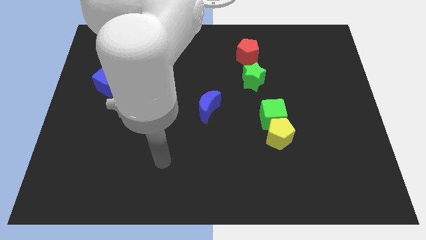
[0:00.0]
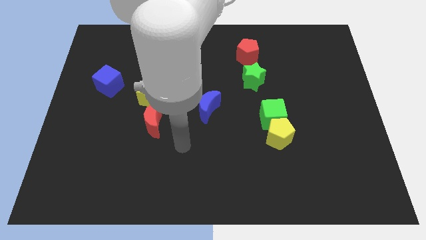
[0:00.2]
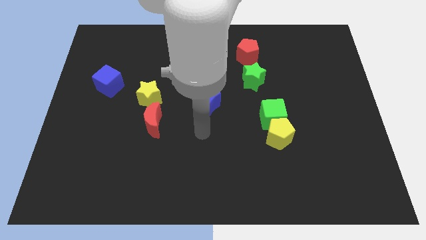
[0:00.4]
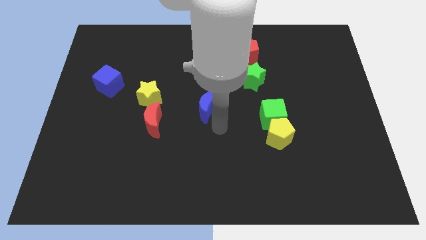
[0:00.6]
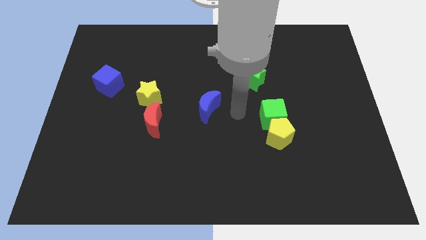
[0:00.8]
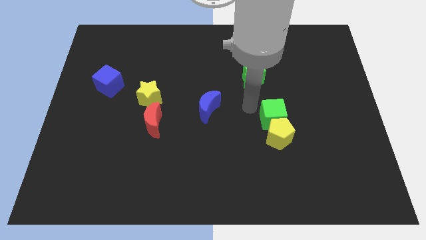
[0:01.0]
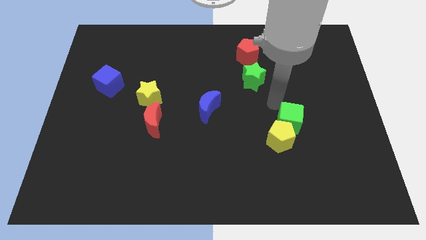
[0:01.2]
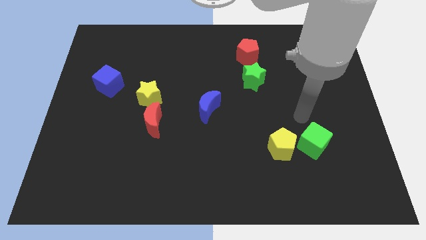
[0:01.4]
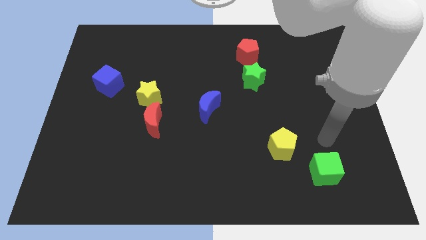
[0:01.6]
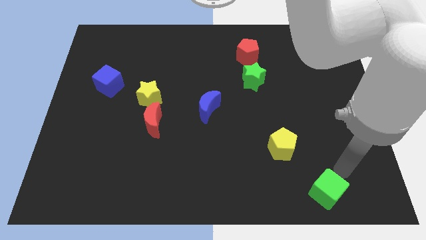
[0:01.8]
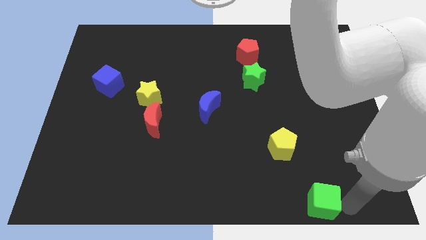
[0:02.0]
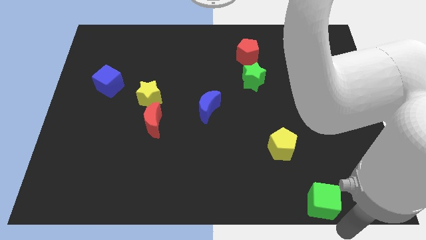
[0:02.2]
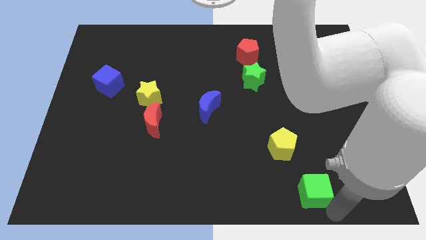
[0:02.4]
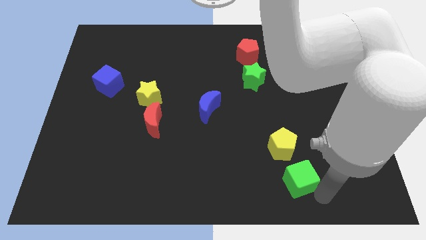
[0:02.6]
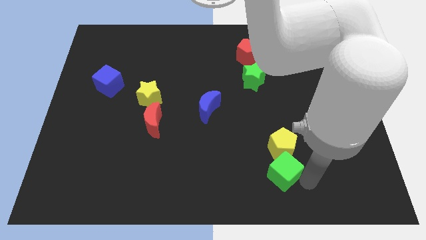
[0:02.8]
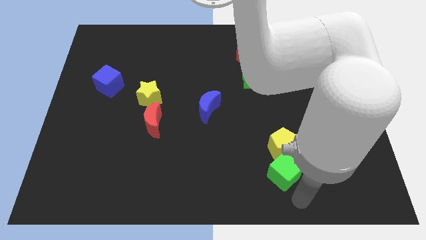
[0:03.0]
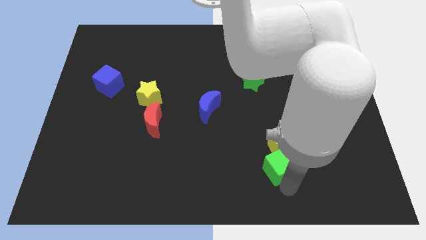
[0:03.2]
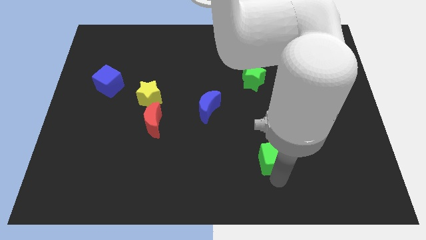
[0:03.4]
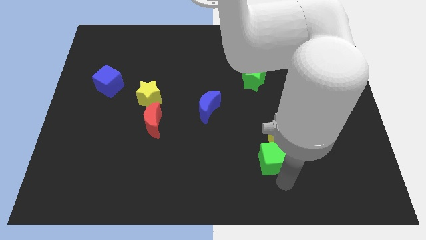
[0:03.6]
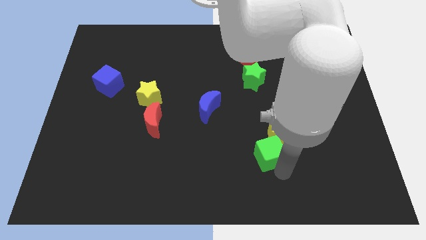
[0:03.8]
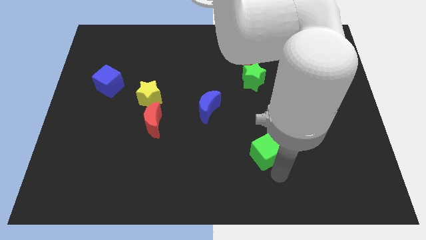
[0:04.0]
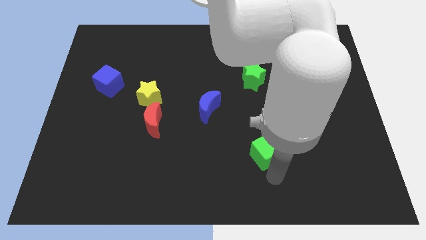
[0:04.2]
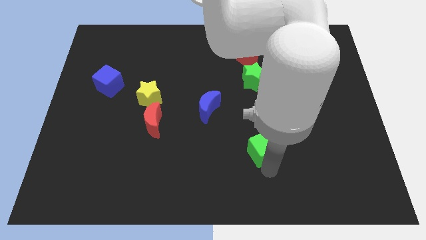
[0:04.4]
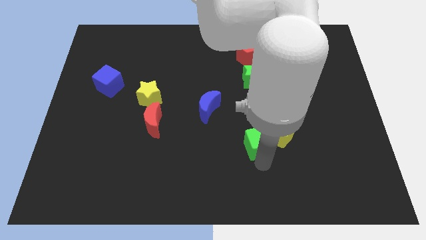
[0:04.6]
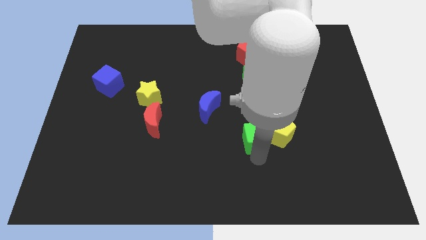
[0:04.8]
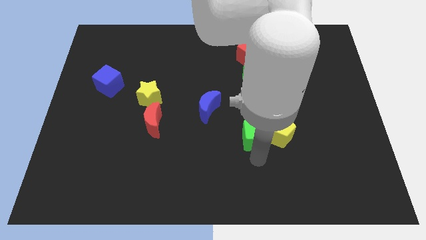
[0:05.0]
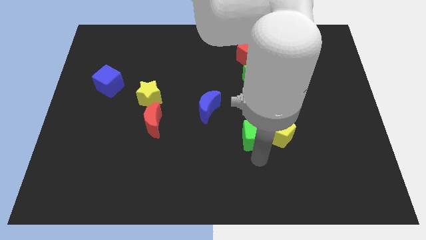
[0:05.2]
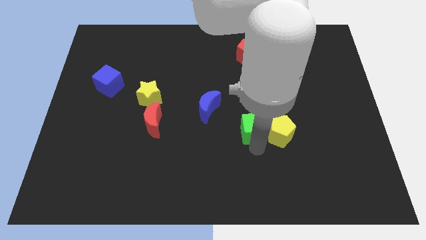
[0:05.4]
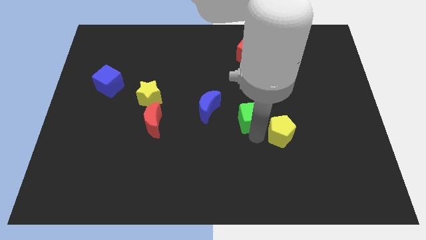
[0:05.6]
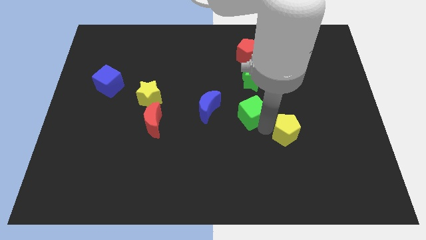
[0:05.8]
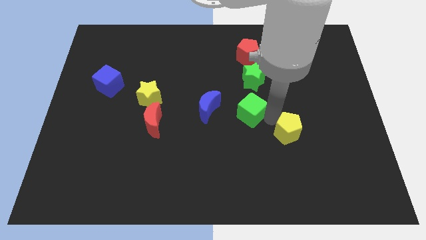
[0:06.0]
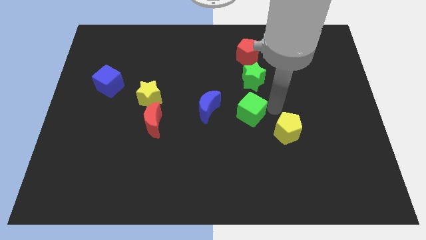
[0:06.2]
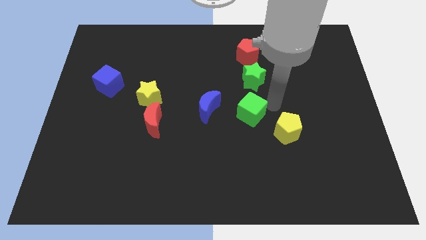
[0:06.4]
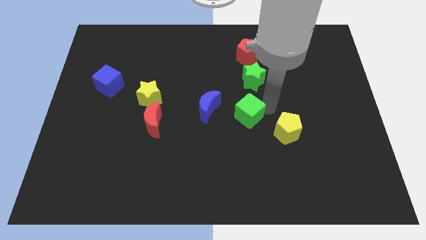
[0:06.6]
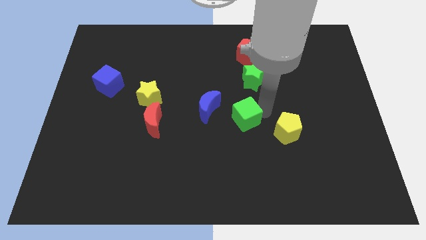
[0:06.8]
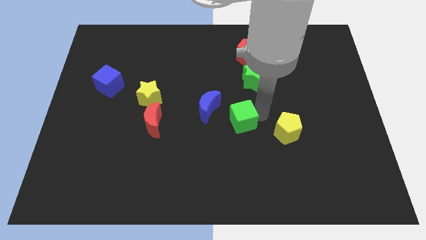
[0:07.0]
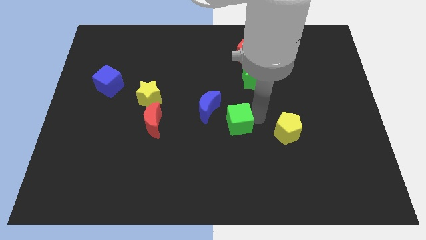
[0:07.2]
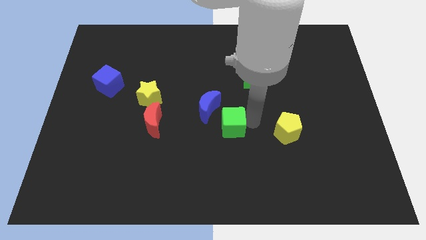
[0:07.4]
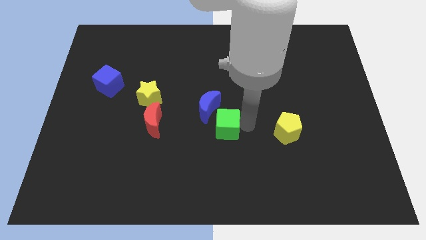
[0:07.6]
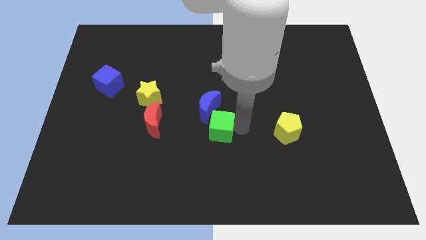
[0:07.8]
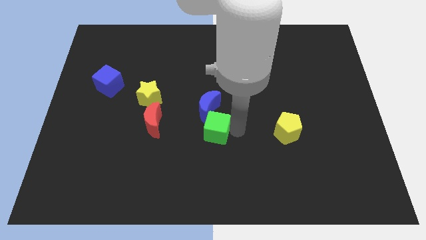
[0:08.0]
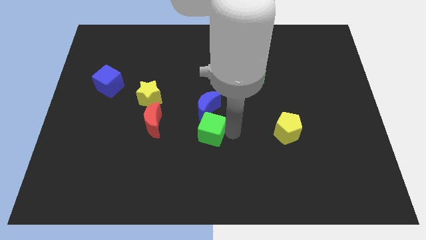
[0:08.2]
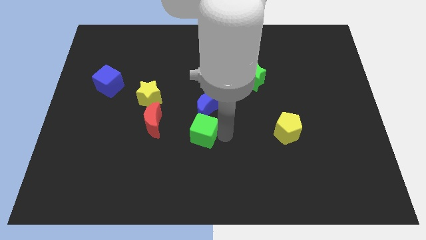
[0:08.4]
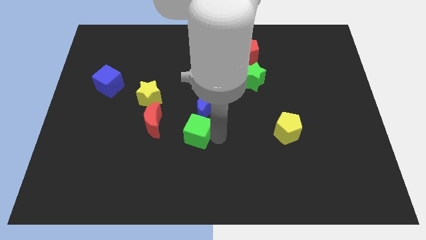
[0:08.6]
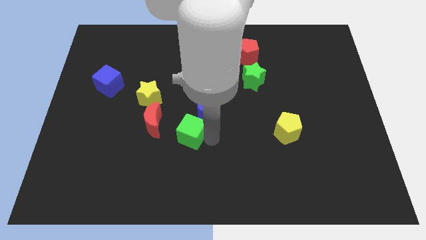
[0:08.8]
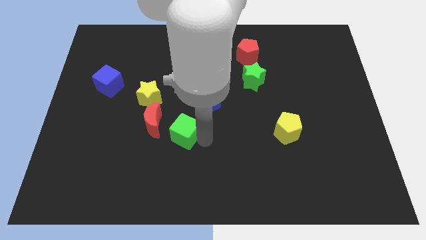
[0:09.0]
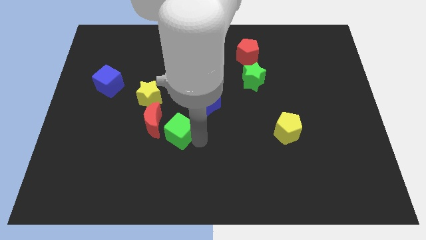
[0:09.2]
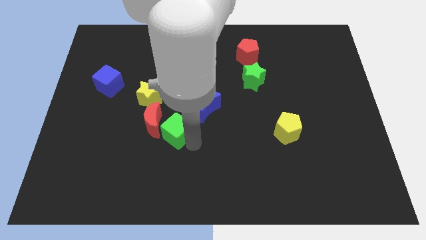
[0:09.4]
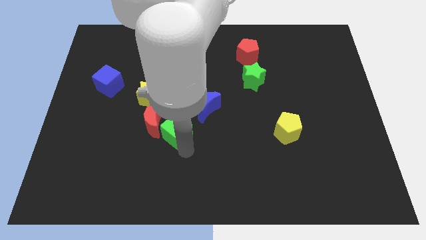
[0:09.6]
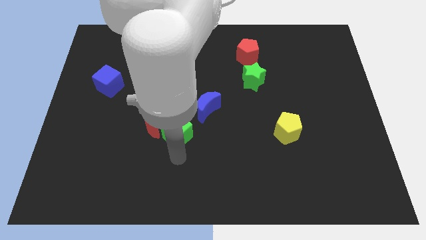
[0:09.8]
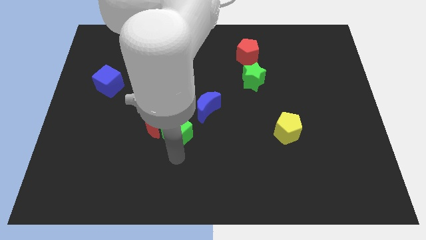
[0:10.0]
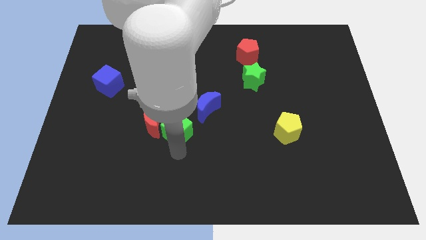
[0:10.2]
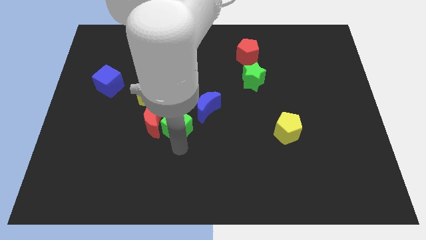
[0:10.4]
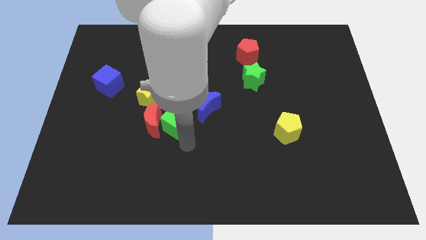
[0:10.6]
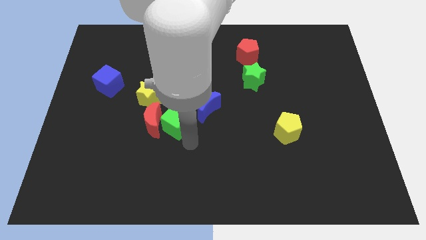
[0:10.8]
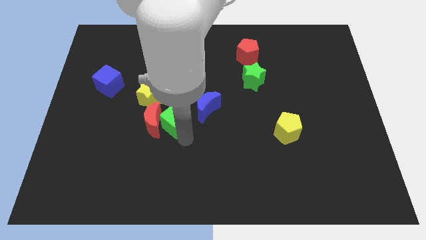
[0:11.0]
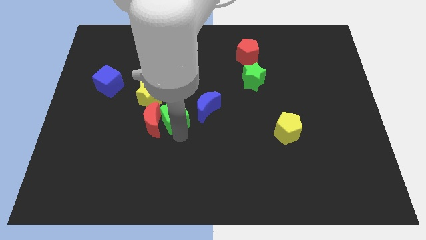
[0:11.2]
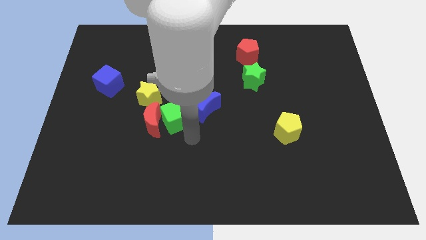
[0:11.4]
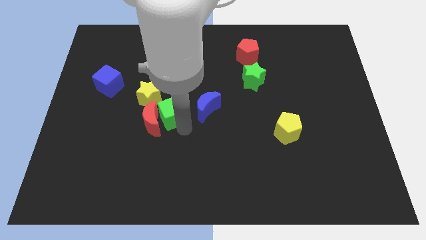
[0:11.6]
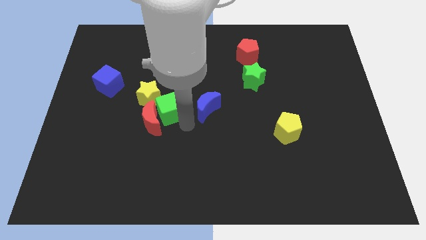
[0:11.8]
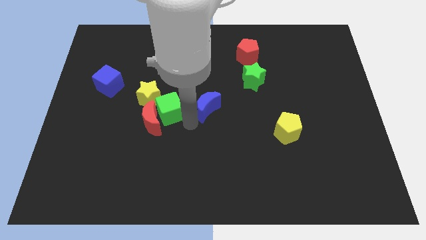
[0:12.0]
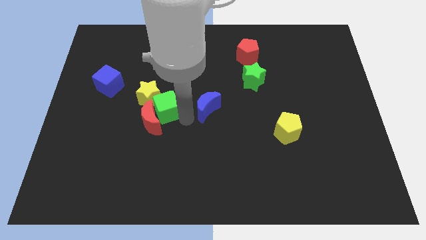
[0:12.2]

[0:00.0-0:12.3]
push the green cube close to the yellow star

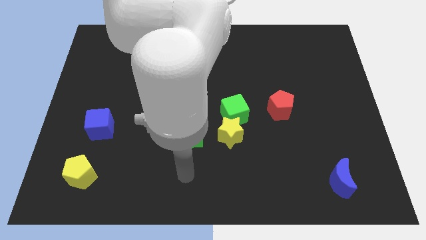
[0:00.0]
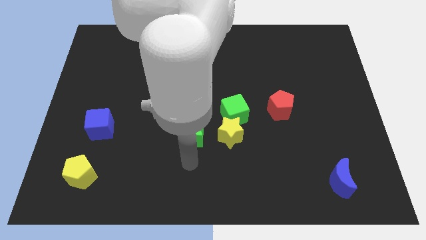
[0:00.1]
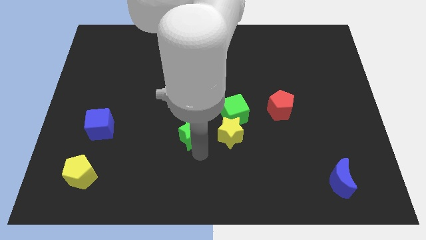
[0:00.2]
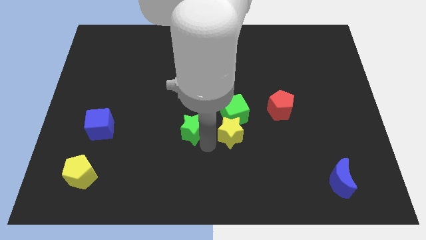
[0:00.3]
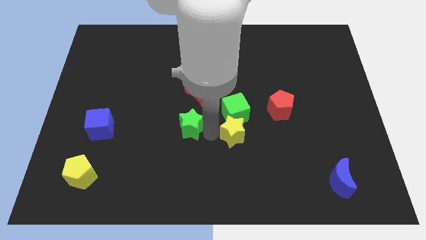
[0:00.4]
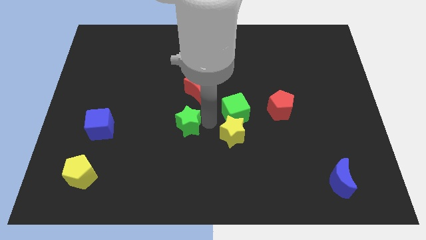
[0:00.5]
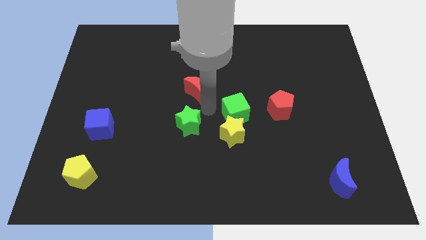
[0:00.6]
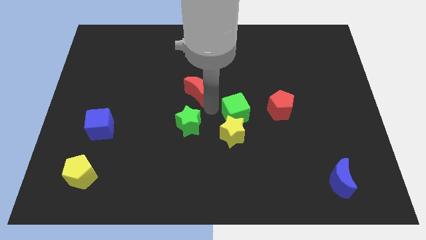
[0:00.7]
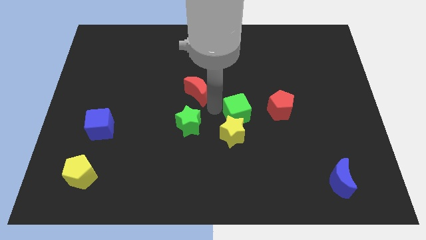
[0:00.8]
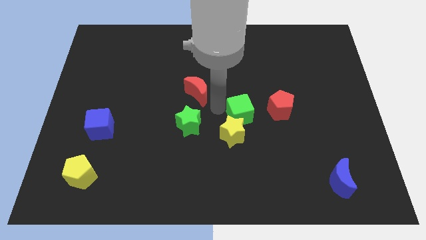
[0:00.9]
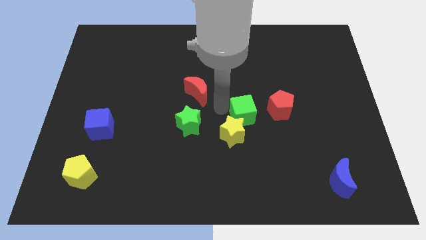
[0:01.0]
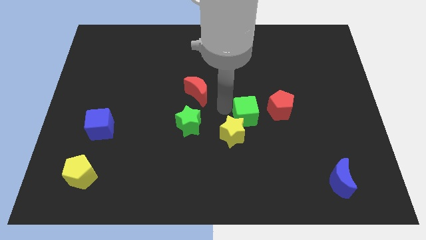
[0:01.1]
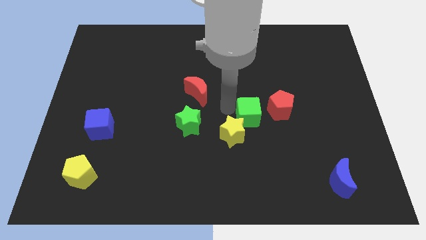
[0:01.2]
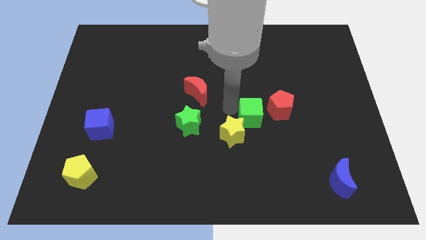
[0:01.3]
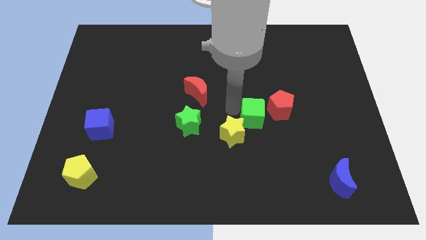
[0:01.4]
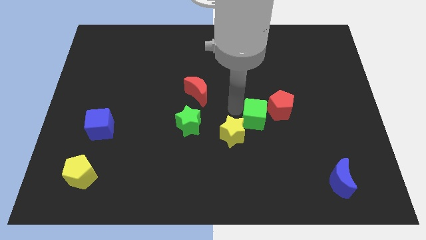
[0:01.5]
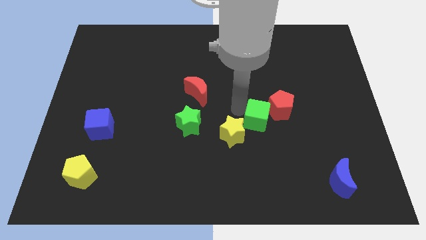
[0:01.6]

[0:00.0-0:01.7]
slide the green cube next to the red pentagon
